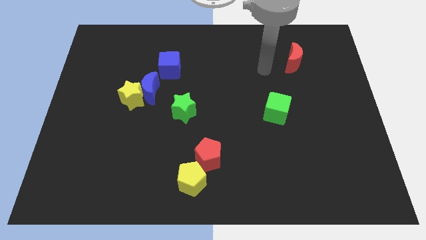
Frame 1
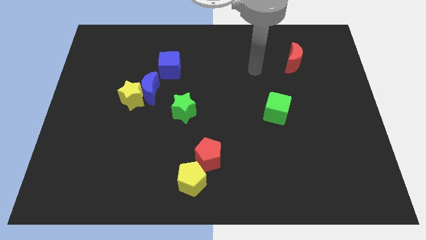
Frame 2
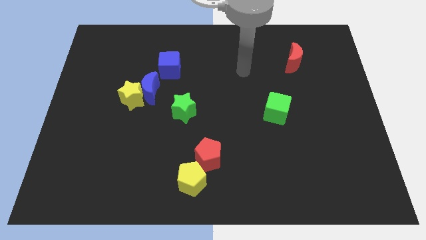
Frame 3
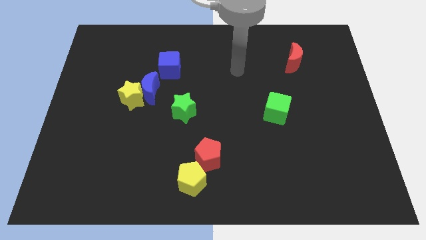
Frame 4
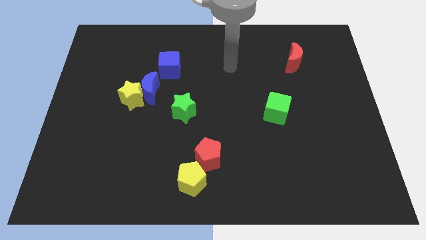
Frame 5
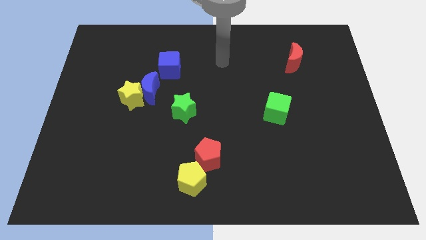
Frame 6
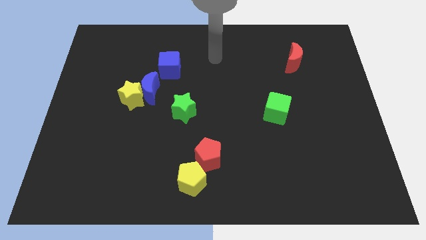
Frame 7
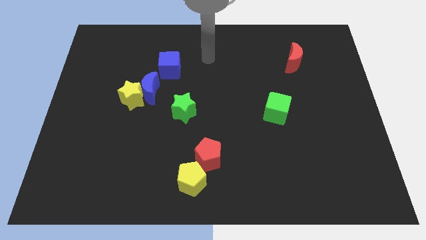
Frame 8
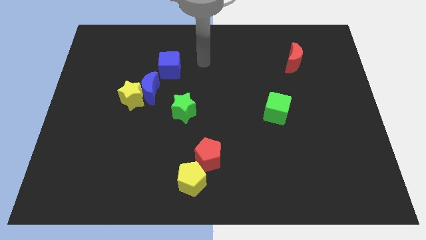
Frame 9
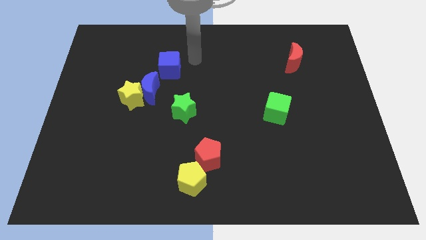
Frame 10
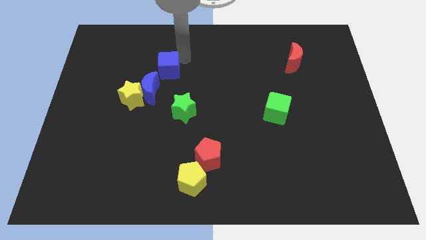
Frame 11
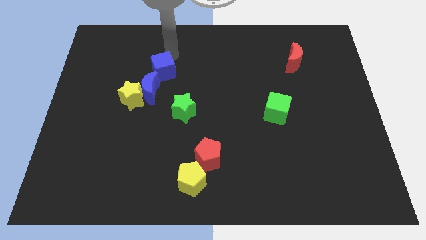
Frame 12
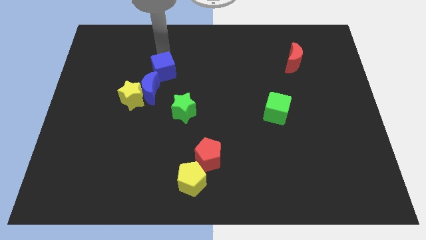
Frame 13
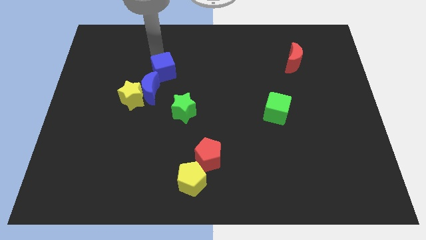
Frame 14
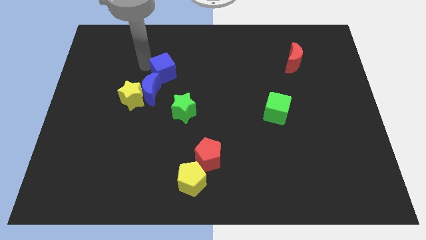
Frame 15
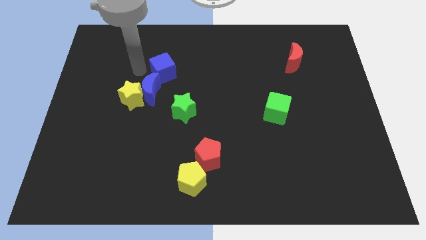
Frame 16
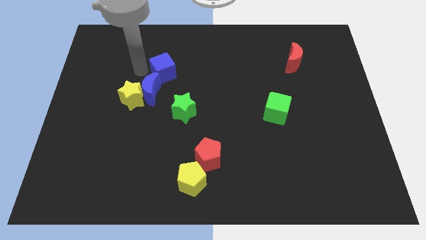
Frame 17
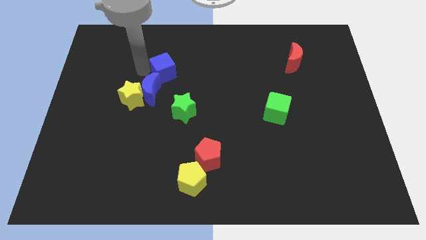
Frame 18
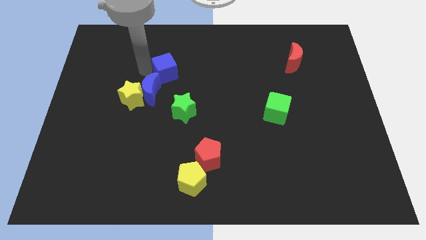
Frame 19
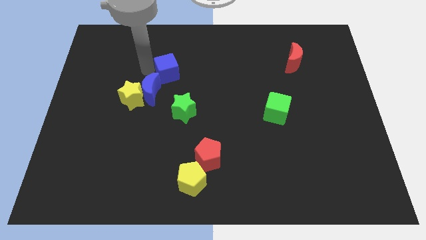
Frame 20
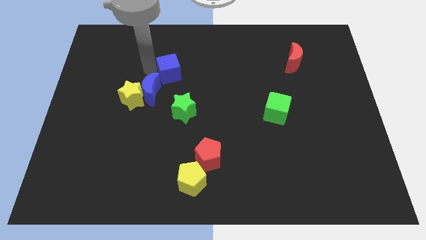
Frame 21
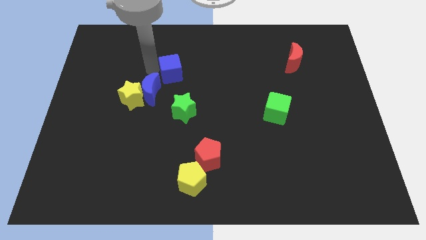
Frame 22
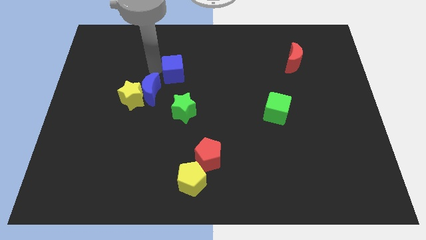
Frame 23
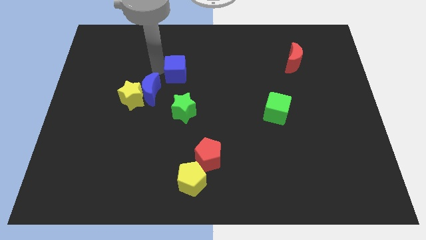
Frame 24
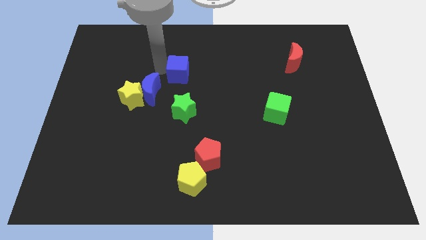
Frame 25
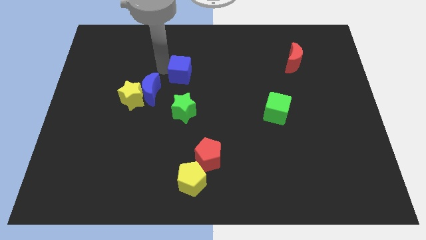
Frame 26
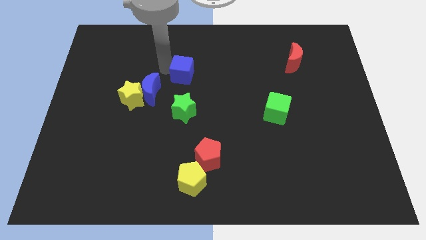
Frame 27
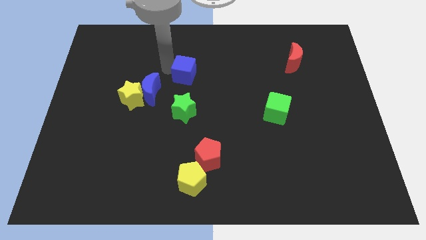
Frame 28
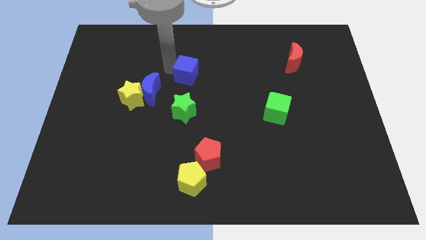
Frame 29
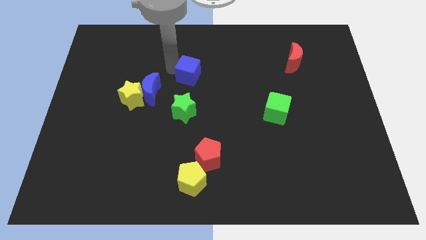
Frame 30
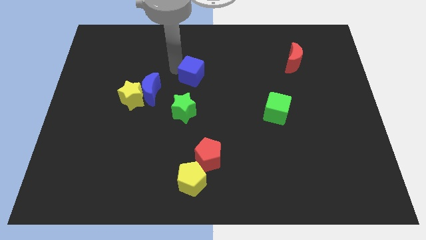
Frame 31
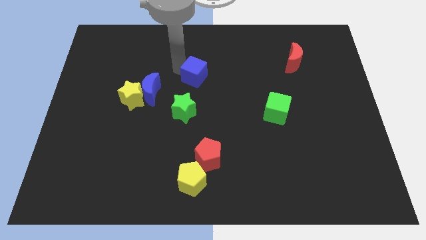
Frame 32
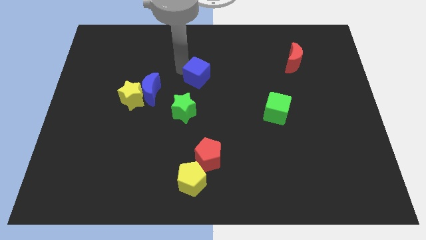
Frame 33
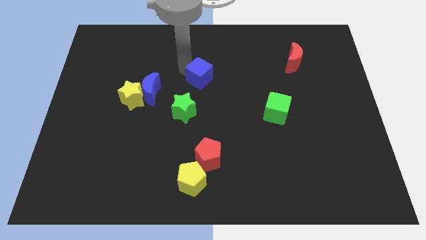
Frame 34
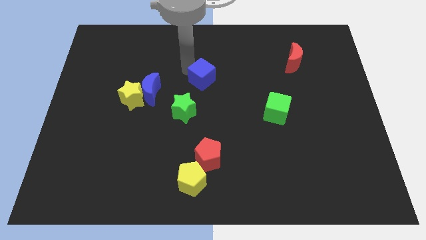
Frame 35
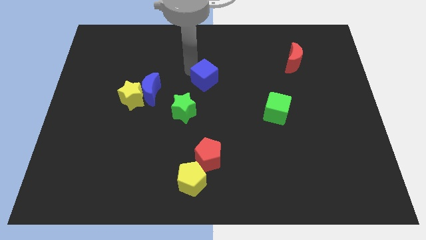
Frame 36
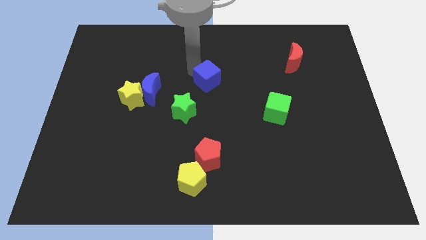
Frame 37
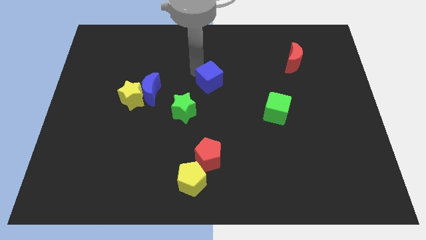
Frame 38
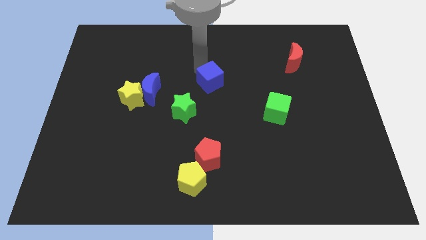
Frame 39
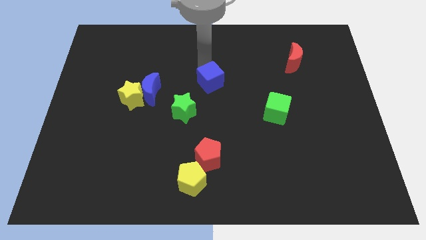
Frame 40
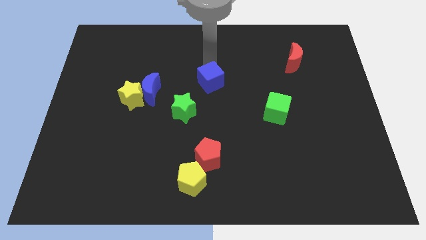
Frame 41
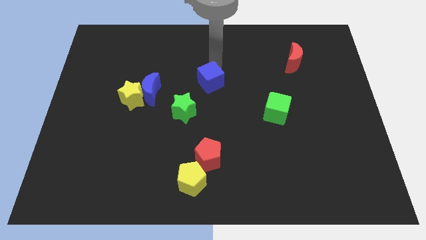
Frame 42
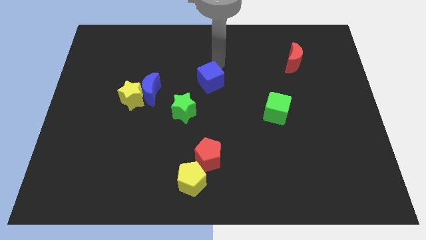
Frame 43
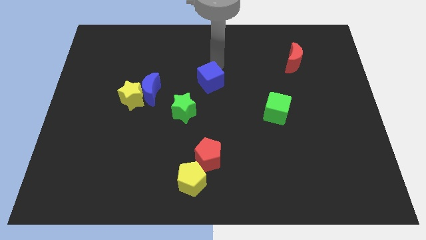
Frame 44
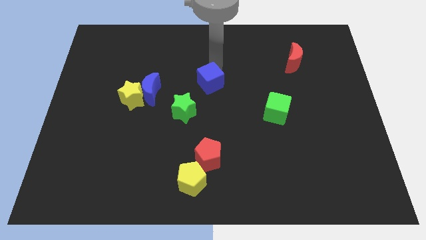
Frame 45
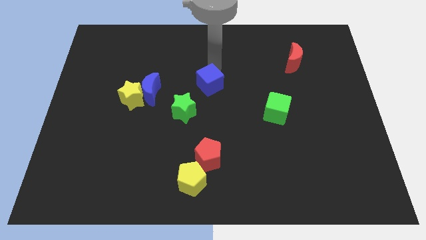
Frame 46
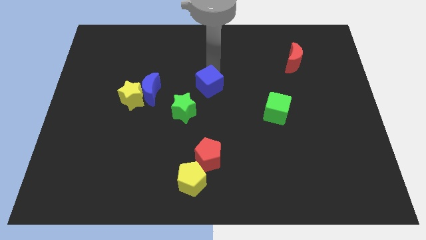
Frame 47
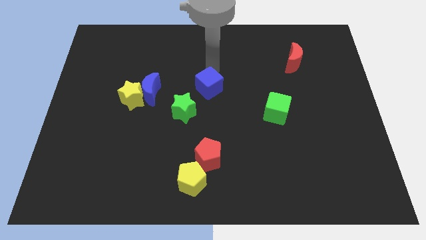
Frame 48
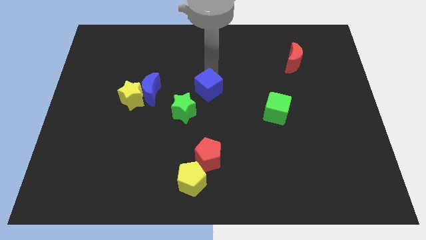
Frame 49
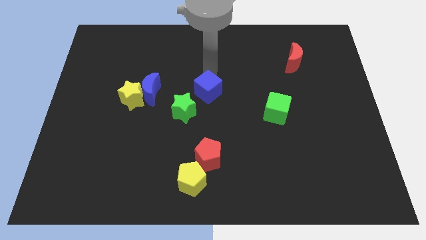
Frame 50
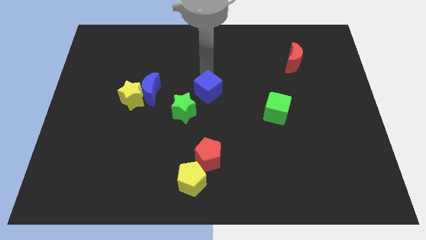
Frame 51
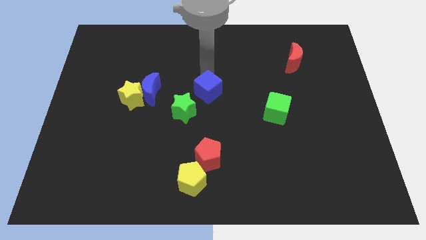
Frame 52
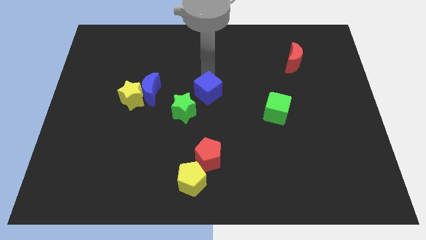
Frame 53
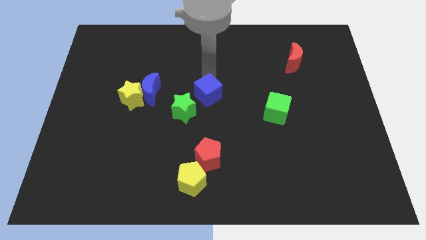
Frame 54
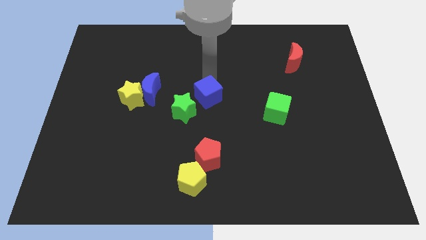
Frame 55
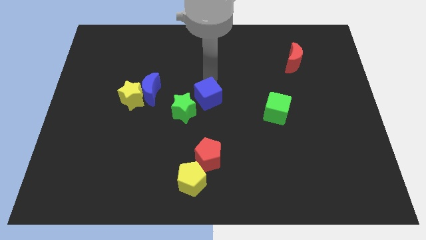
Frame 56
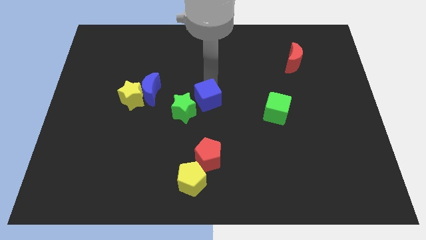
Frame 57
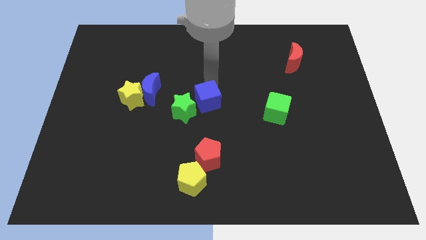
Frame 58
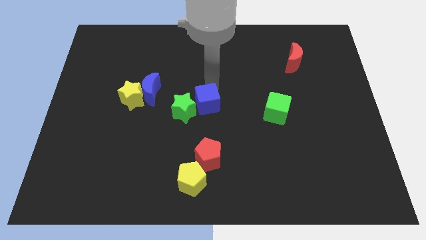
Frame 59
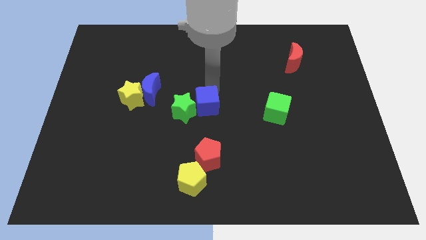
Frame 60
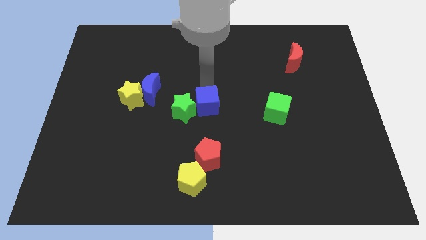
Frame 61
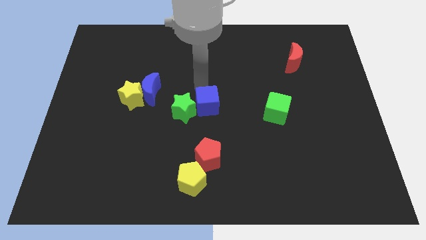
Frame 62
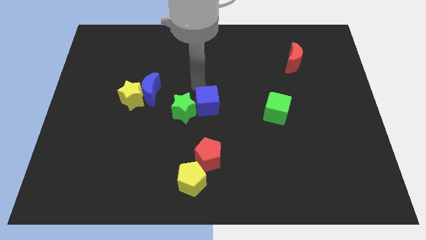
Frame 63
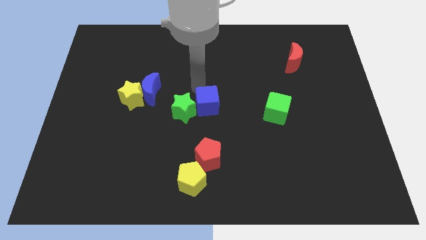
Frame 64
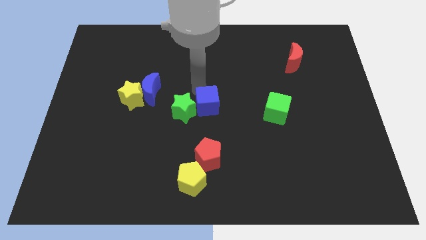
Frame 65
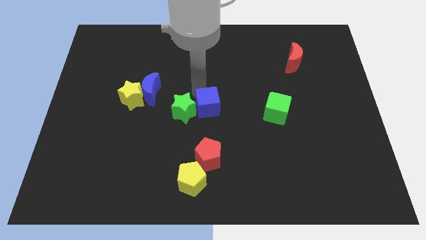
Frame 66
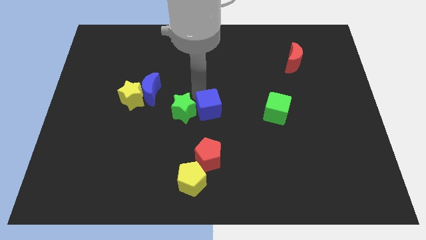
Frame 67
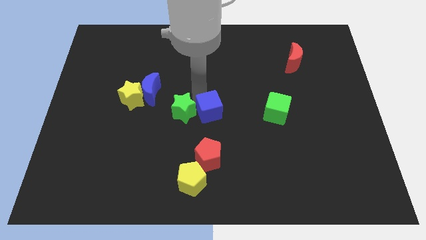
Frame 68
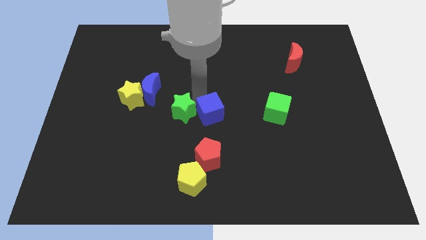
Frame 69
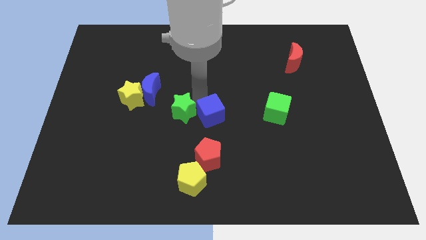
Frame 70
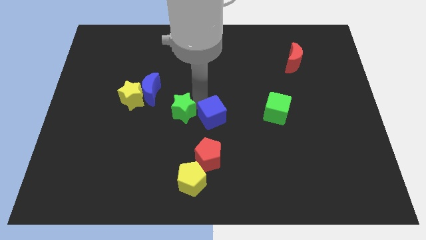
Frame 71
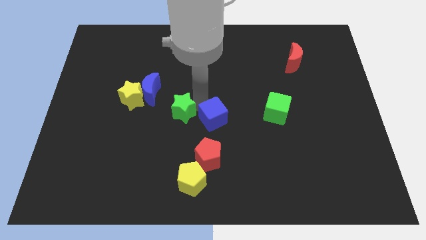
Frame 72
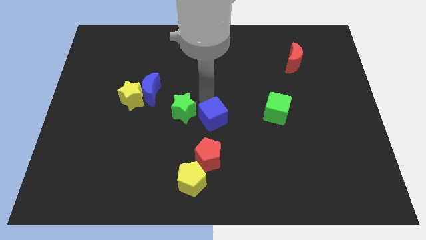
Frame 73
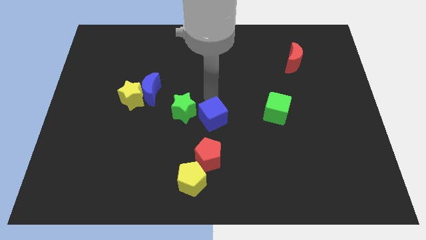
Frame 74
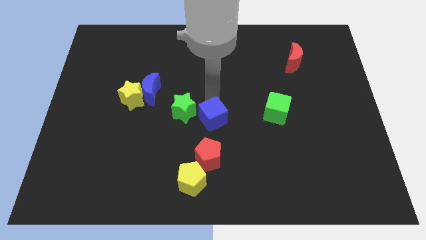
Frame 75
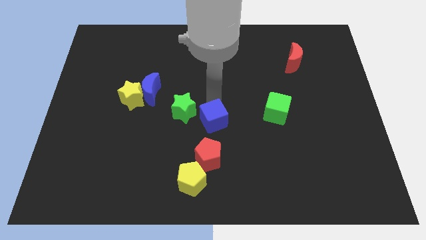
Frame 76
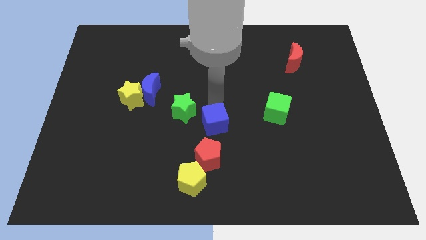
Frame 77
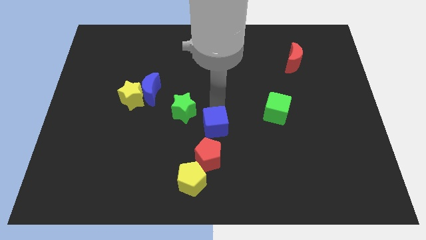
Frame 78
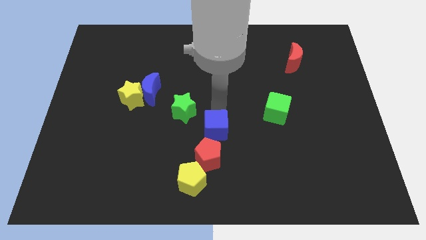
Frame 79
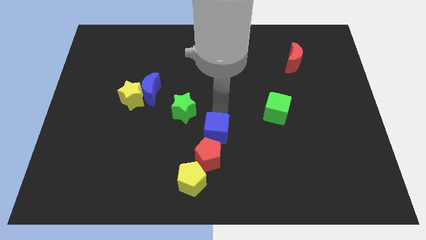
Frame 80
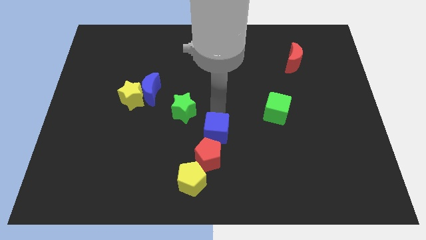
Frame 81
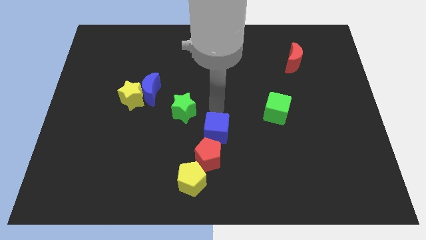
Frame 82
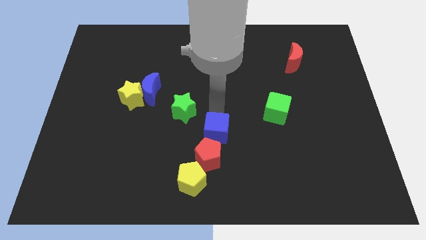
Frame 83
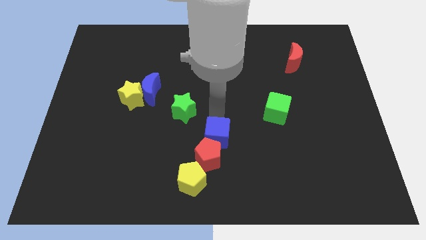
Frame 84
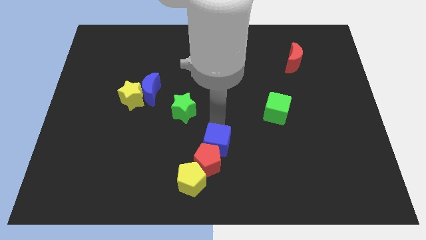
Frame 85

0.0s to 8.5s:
push the blue cube to the top right of the yellow pentagon
